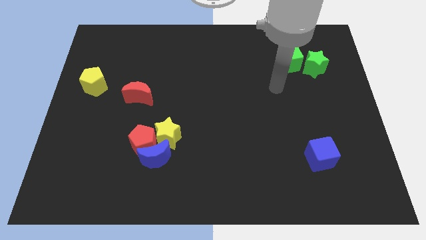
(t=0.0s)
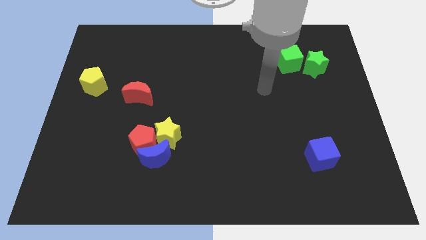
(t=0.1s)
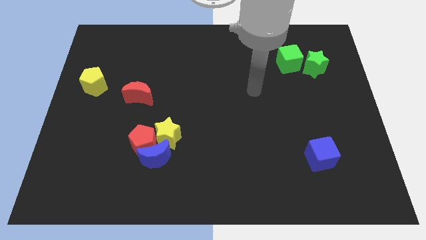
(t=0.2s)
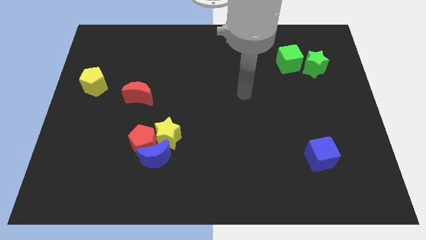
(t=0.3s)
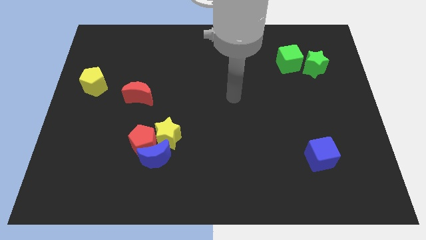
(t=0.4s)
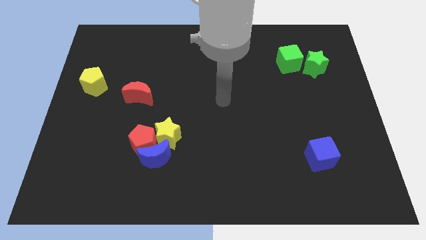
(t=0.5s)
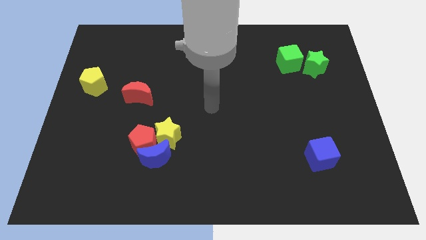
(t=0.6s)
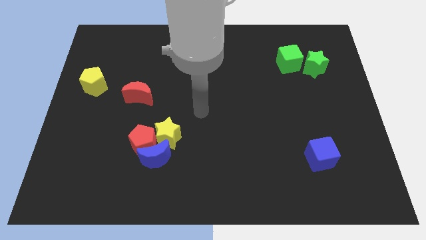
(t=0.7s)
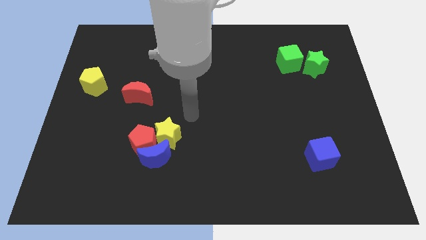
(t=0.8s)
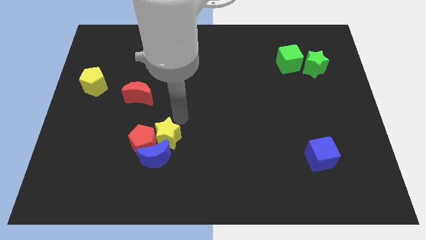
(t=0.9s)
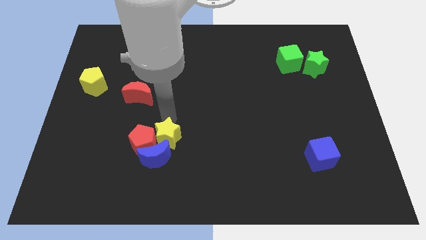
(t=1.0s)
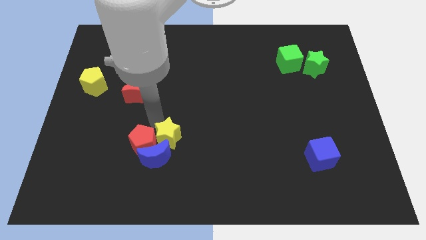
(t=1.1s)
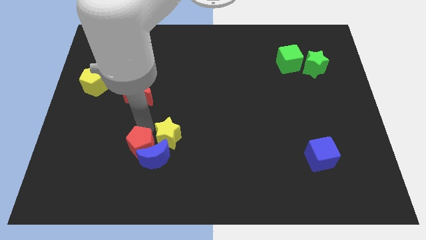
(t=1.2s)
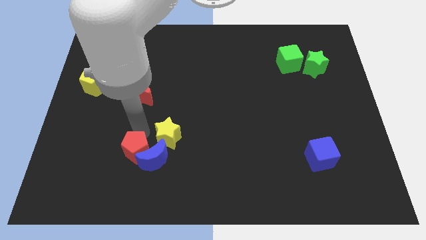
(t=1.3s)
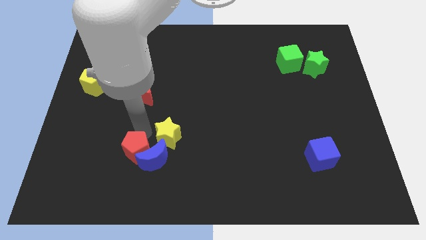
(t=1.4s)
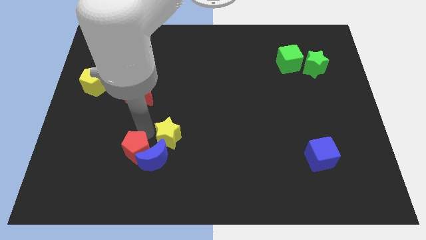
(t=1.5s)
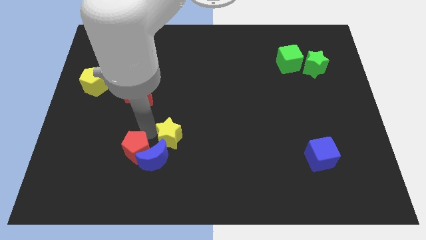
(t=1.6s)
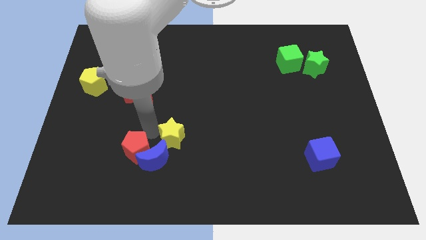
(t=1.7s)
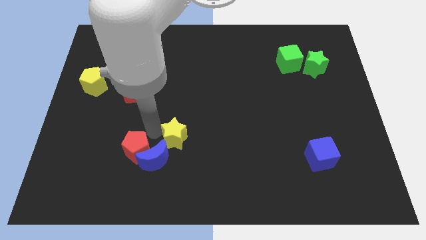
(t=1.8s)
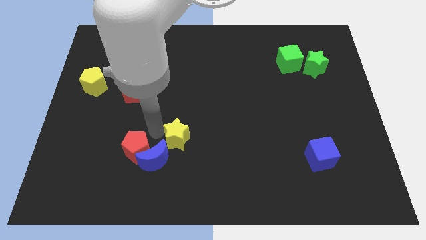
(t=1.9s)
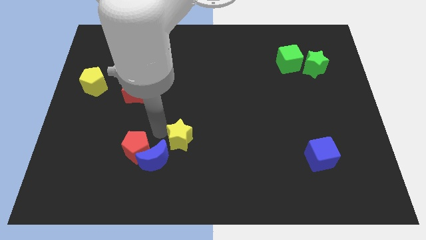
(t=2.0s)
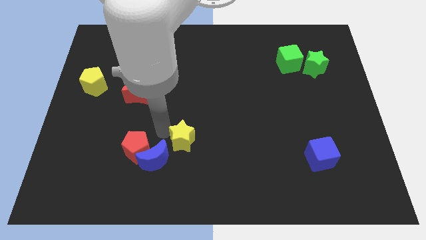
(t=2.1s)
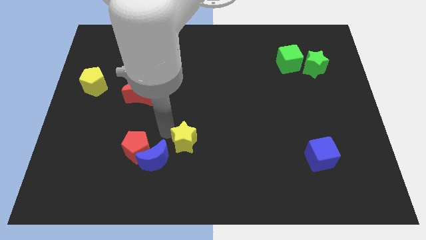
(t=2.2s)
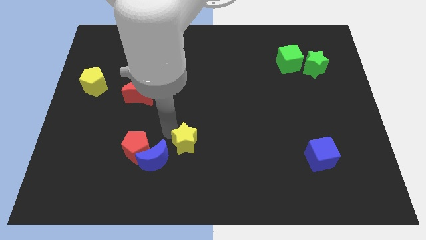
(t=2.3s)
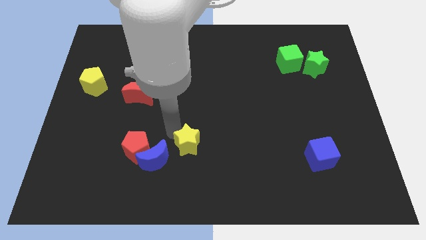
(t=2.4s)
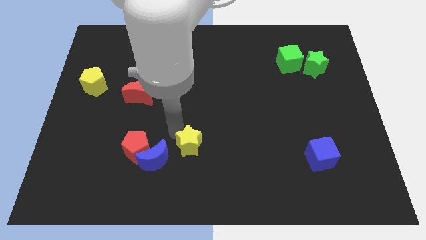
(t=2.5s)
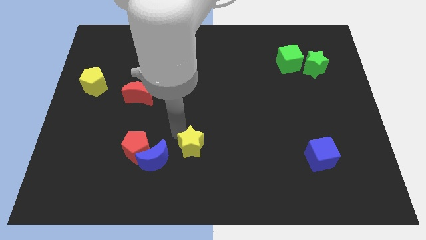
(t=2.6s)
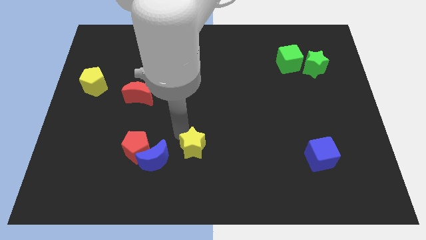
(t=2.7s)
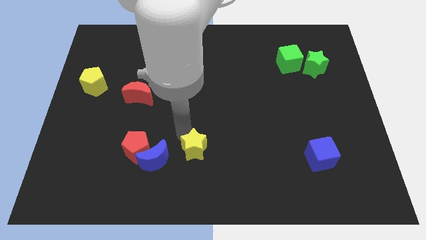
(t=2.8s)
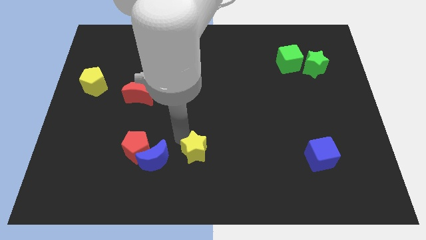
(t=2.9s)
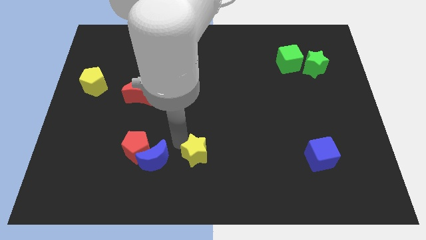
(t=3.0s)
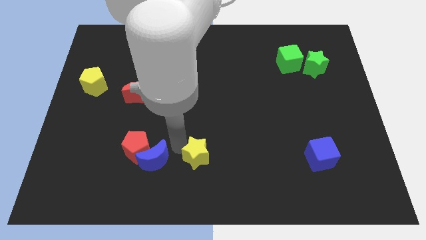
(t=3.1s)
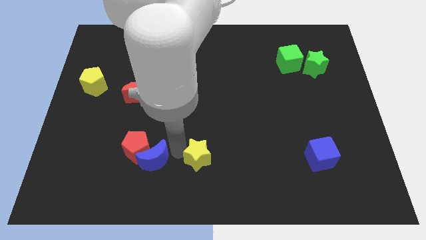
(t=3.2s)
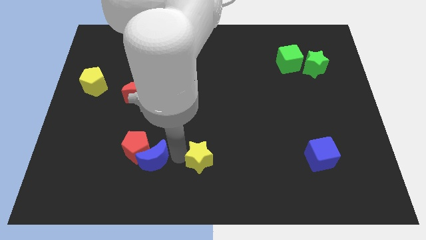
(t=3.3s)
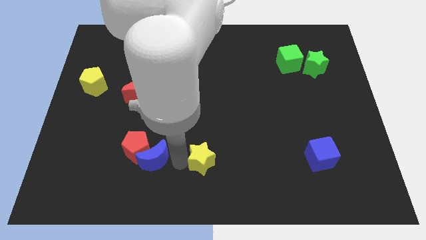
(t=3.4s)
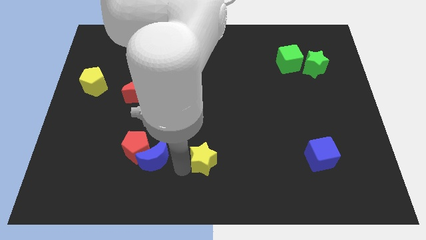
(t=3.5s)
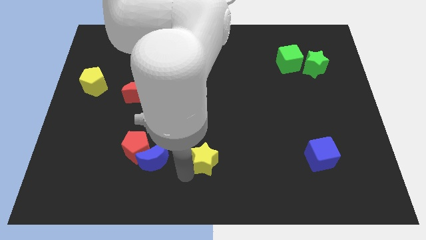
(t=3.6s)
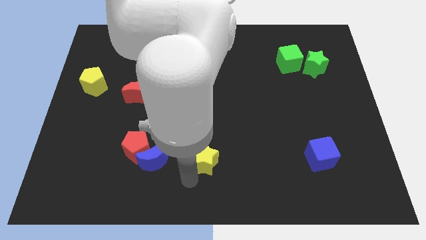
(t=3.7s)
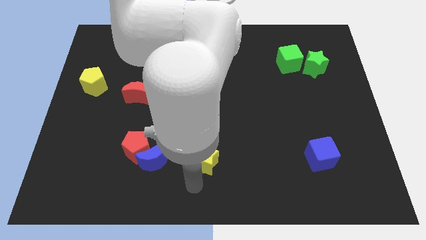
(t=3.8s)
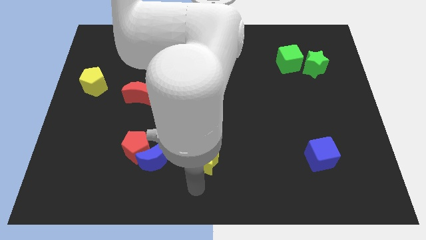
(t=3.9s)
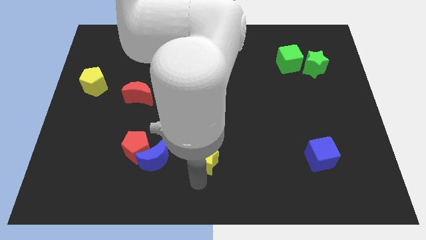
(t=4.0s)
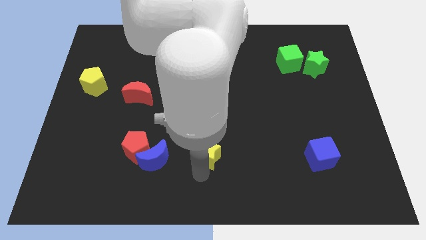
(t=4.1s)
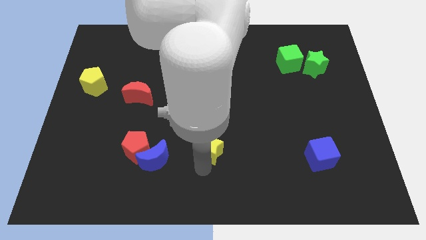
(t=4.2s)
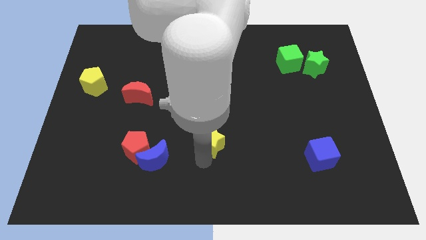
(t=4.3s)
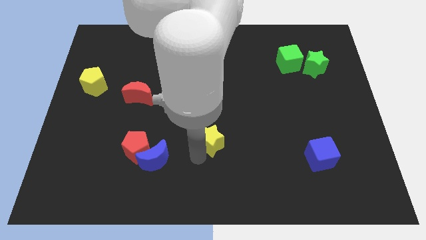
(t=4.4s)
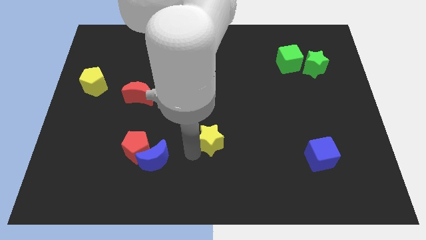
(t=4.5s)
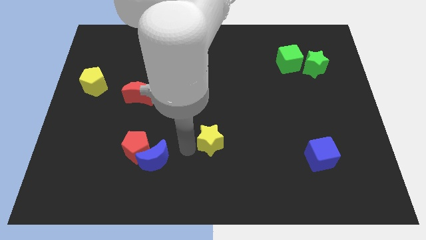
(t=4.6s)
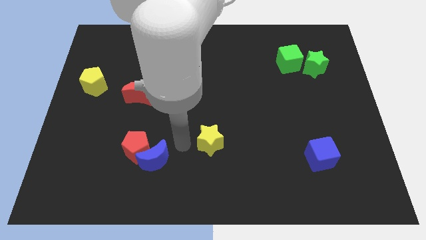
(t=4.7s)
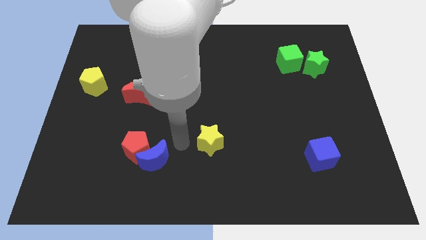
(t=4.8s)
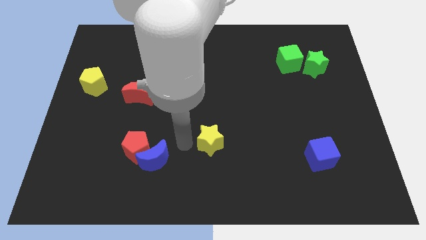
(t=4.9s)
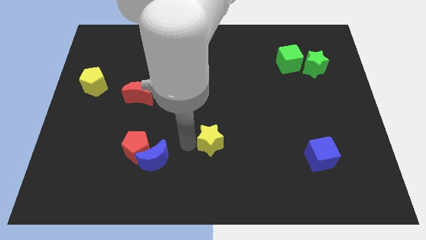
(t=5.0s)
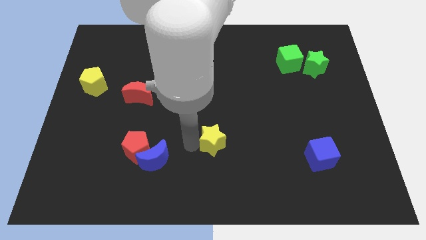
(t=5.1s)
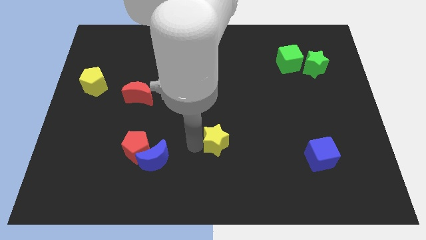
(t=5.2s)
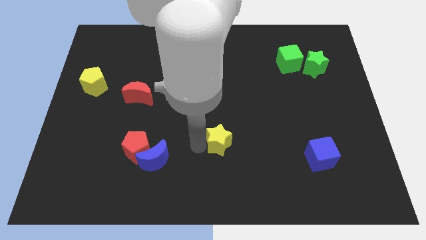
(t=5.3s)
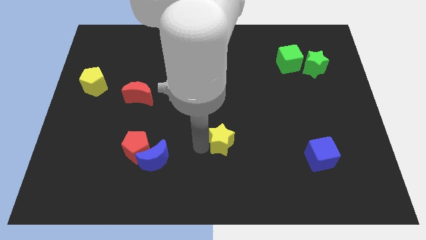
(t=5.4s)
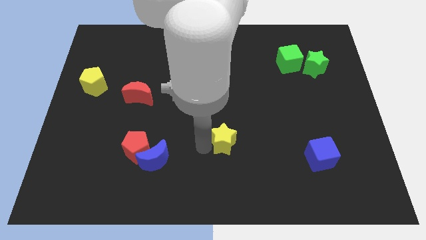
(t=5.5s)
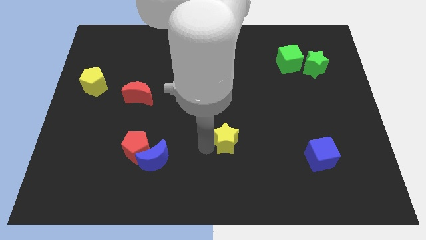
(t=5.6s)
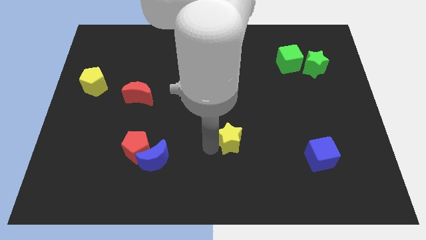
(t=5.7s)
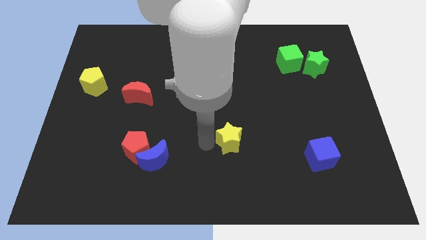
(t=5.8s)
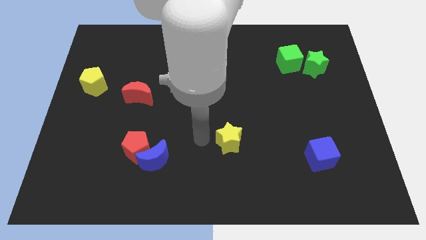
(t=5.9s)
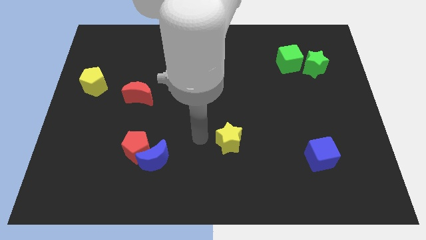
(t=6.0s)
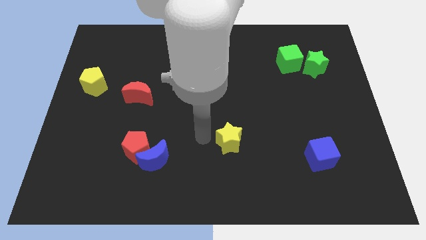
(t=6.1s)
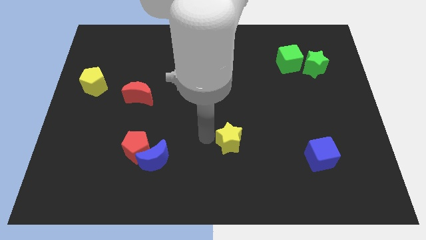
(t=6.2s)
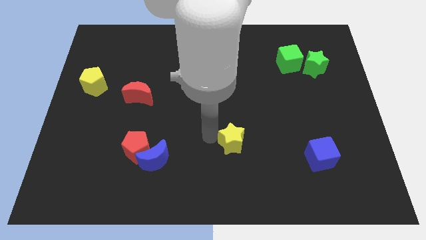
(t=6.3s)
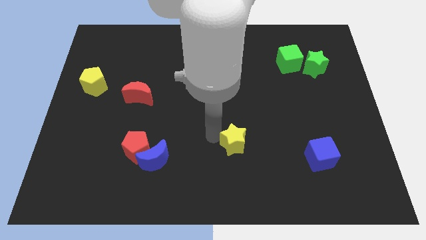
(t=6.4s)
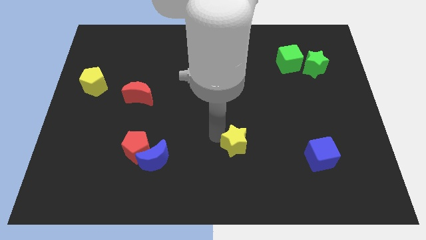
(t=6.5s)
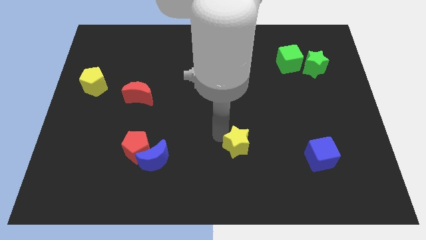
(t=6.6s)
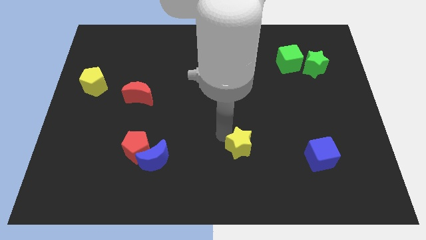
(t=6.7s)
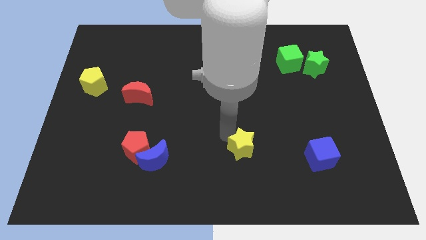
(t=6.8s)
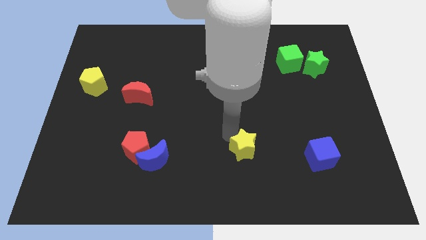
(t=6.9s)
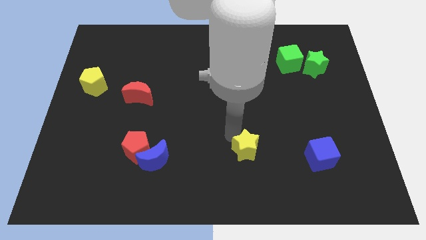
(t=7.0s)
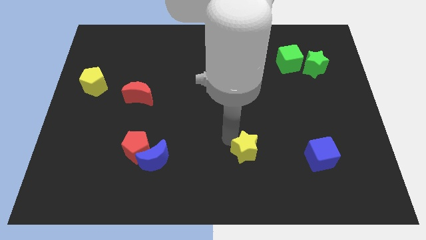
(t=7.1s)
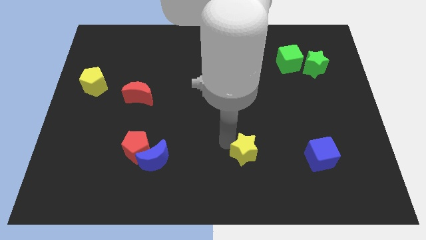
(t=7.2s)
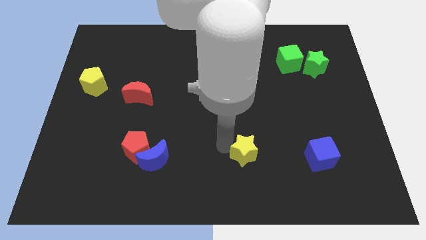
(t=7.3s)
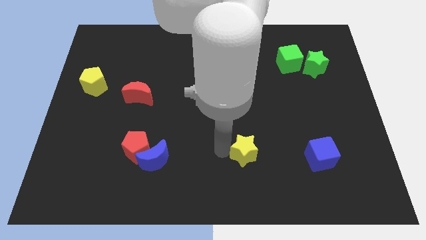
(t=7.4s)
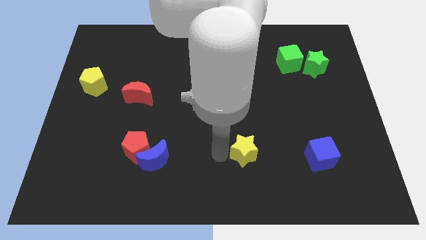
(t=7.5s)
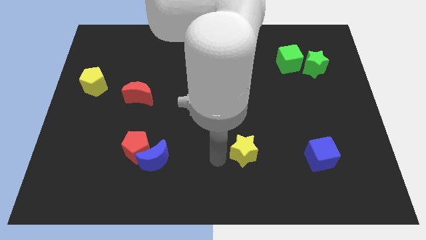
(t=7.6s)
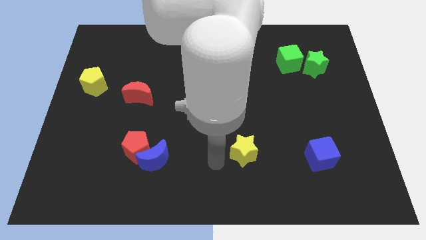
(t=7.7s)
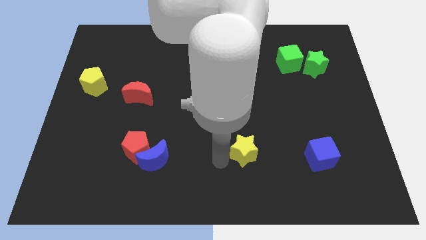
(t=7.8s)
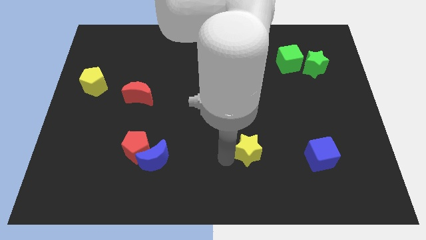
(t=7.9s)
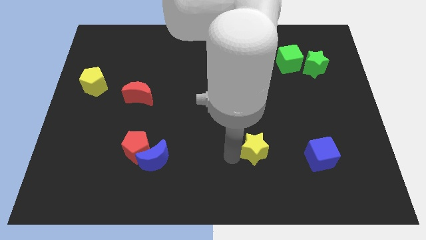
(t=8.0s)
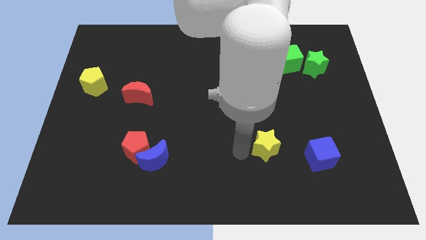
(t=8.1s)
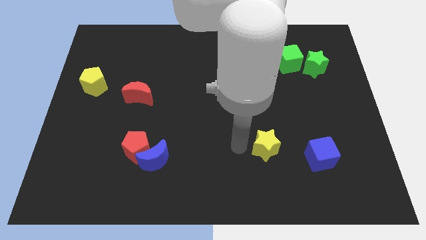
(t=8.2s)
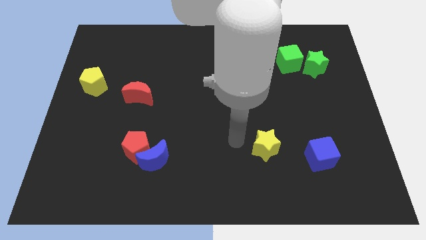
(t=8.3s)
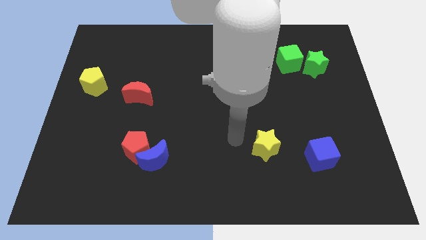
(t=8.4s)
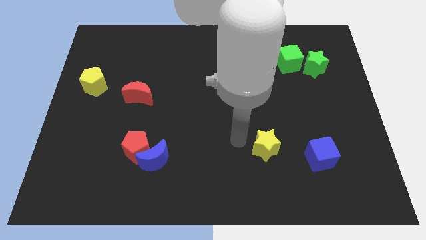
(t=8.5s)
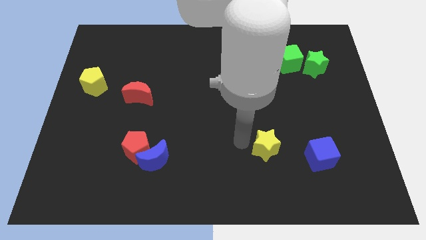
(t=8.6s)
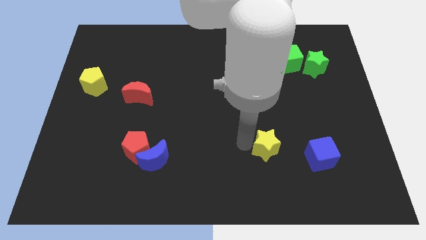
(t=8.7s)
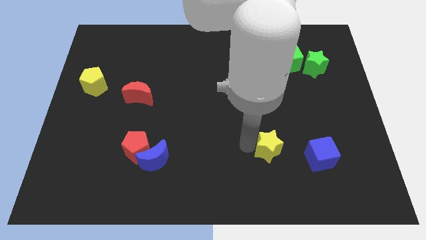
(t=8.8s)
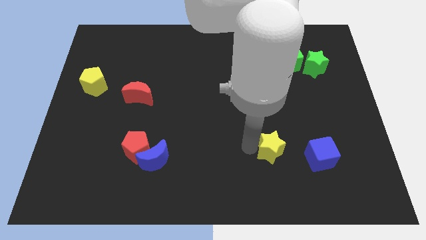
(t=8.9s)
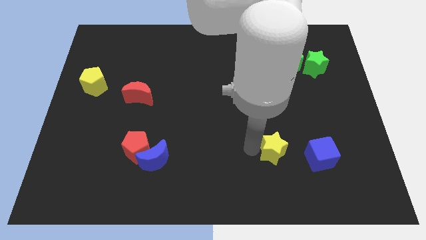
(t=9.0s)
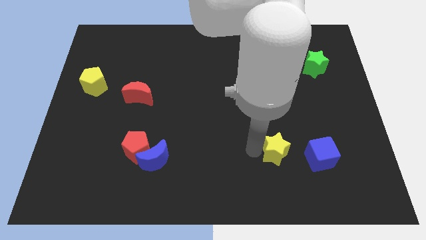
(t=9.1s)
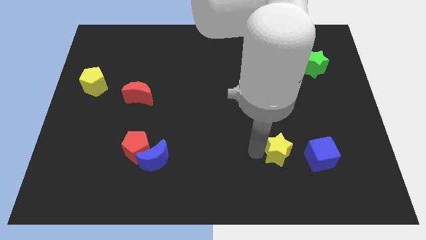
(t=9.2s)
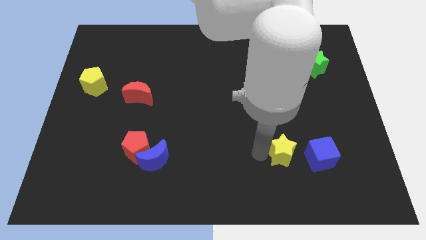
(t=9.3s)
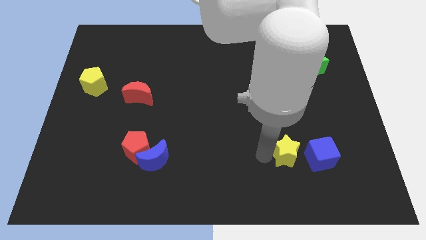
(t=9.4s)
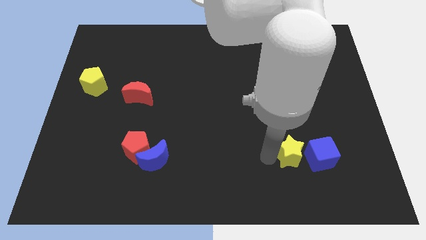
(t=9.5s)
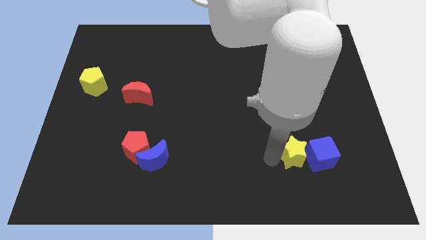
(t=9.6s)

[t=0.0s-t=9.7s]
move the yellow star close to the blue cube
